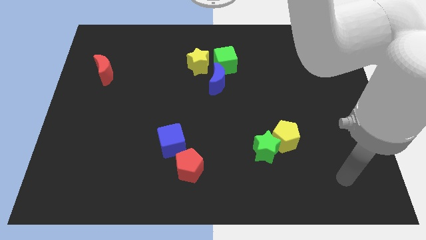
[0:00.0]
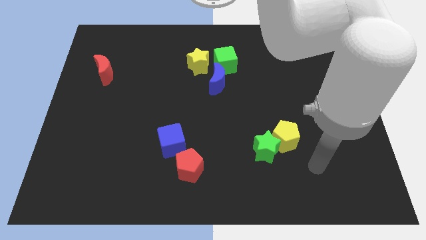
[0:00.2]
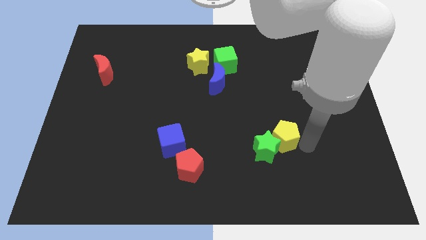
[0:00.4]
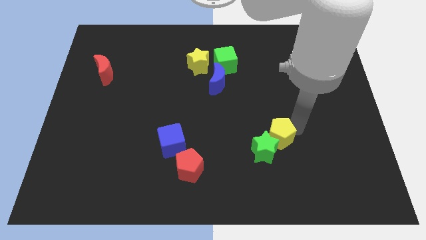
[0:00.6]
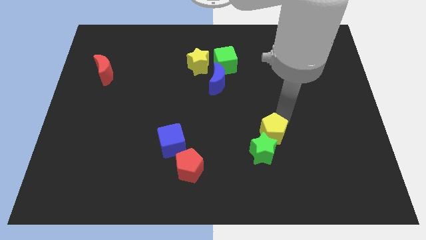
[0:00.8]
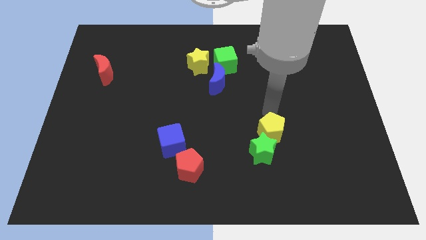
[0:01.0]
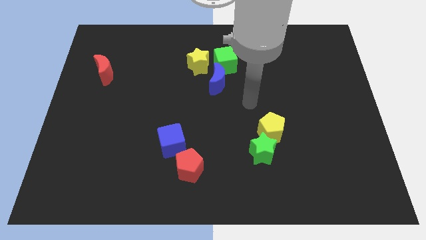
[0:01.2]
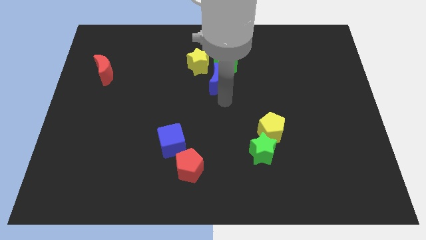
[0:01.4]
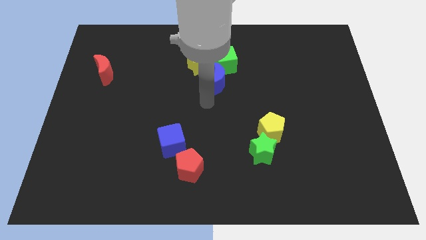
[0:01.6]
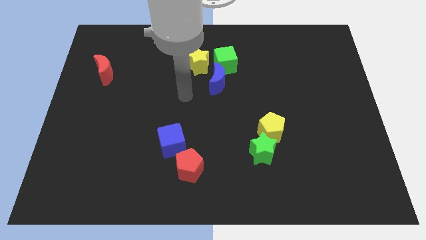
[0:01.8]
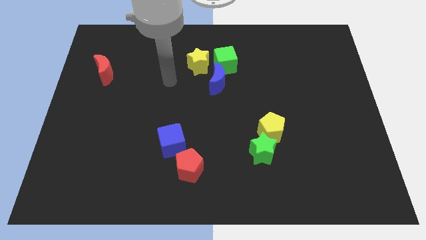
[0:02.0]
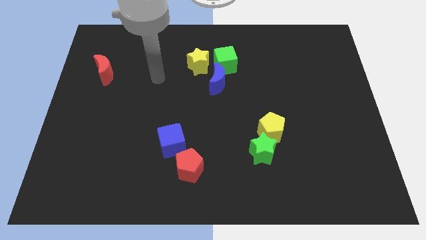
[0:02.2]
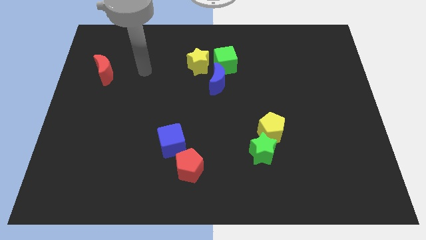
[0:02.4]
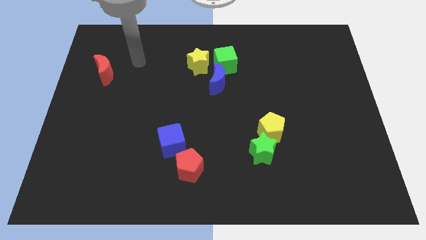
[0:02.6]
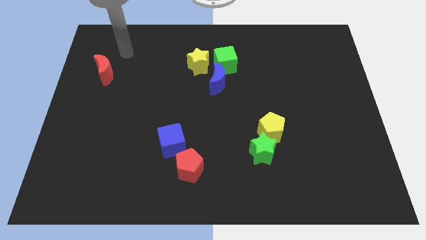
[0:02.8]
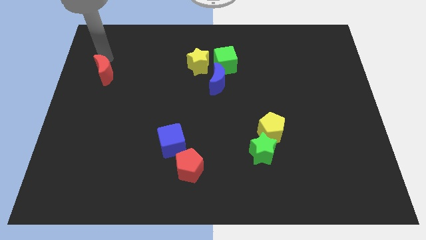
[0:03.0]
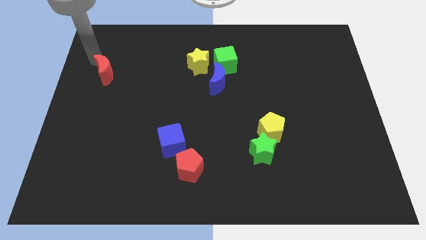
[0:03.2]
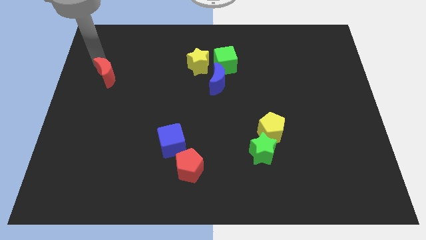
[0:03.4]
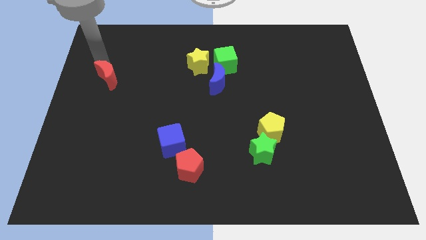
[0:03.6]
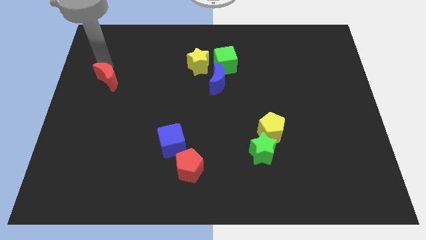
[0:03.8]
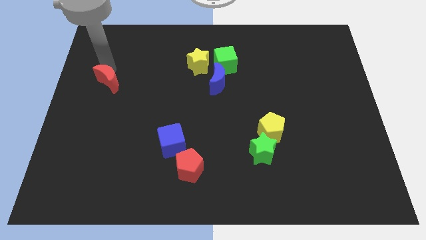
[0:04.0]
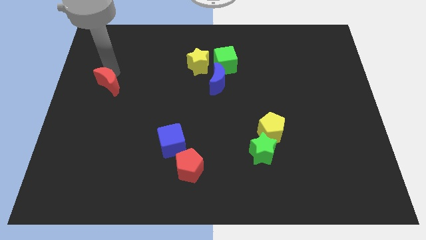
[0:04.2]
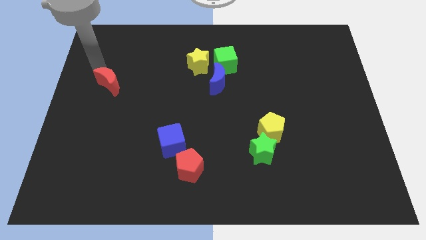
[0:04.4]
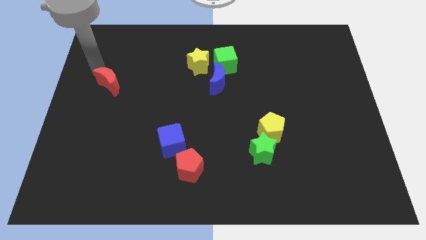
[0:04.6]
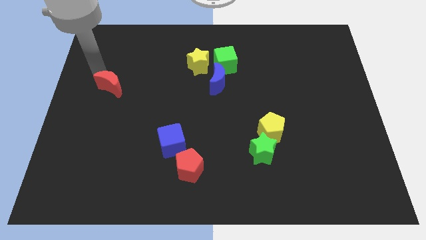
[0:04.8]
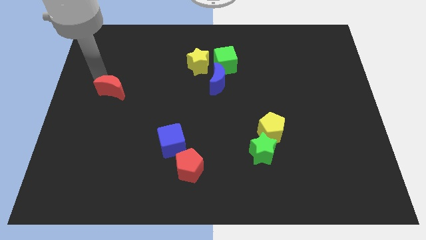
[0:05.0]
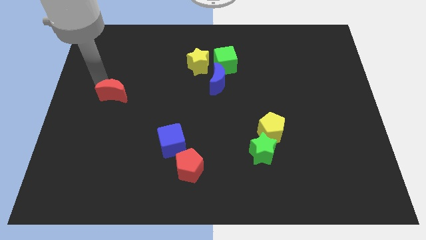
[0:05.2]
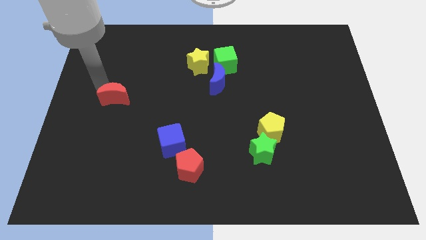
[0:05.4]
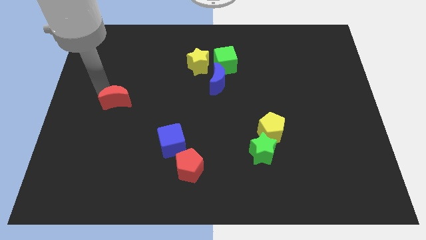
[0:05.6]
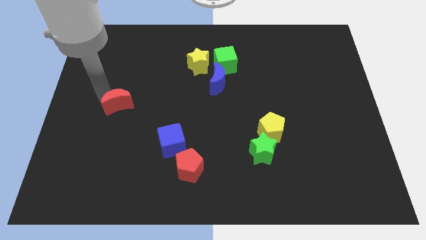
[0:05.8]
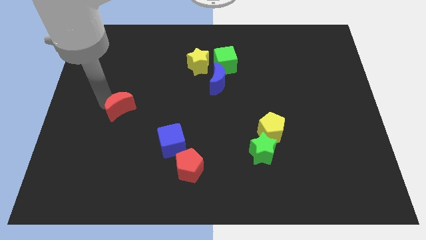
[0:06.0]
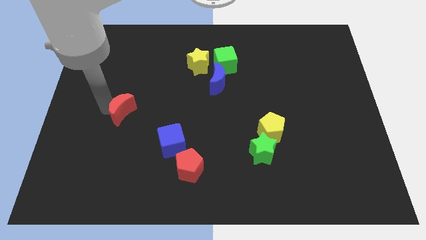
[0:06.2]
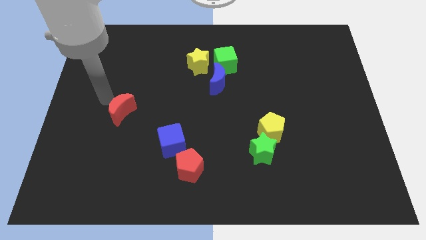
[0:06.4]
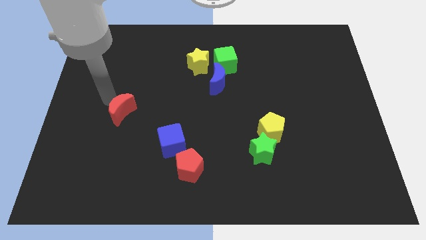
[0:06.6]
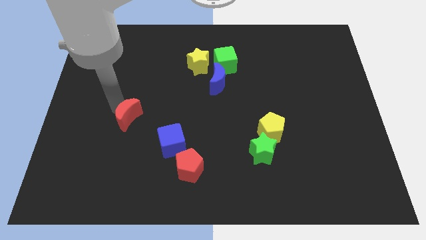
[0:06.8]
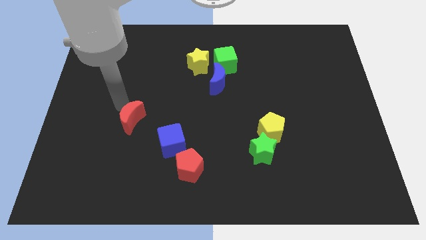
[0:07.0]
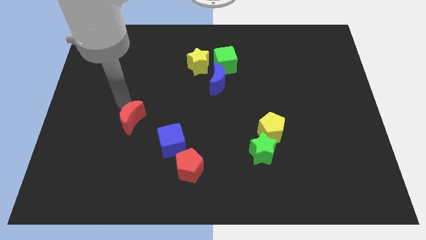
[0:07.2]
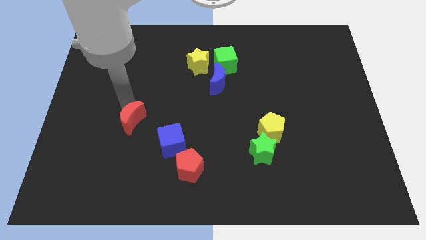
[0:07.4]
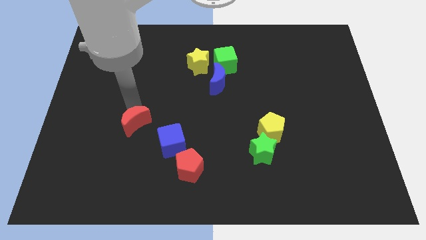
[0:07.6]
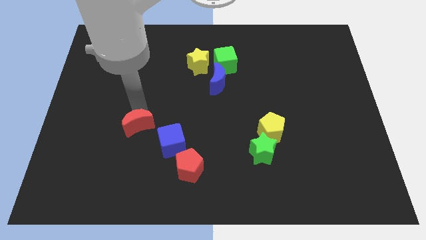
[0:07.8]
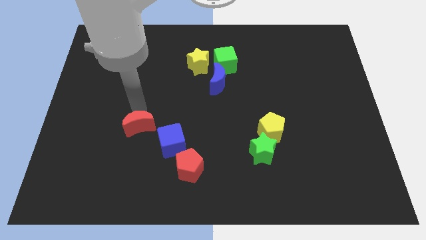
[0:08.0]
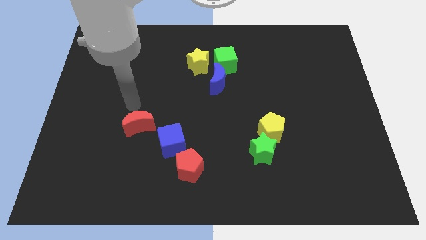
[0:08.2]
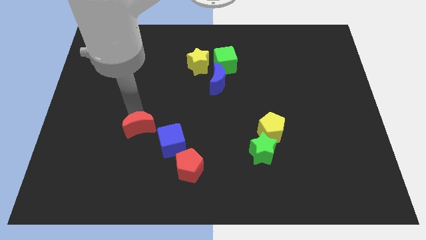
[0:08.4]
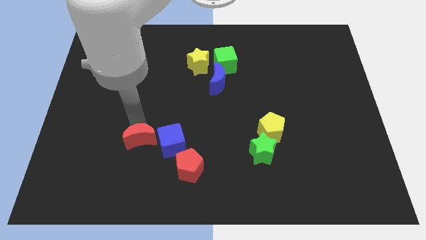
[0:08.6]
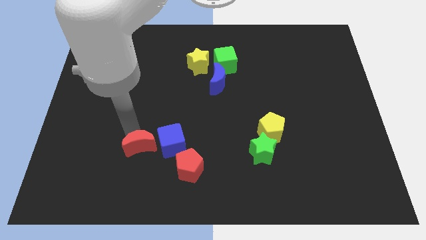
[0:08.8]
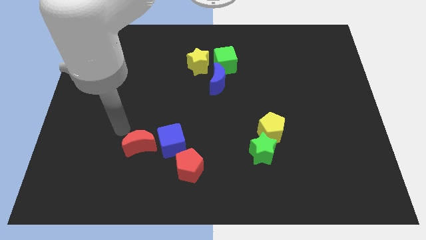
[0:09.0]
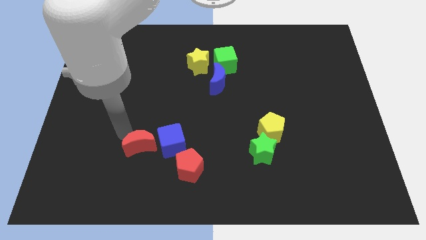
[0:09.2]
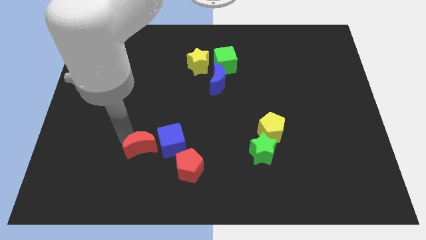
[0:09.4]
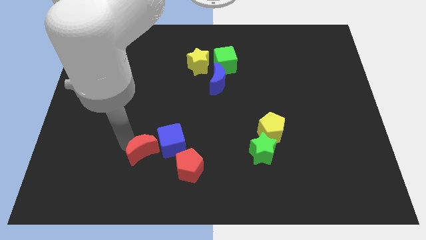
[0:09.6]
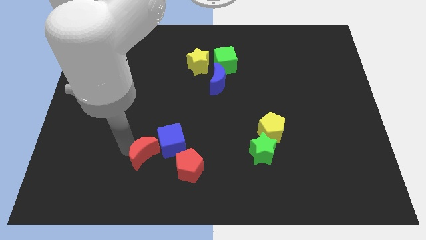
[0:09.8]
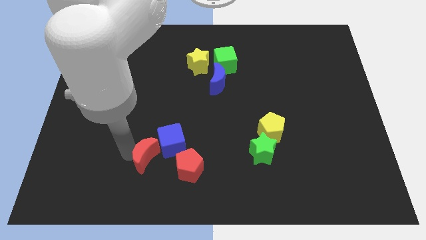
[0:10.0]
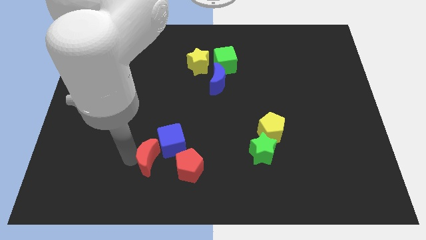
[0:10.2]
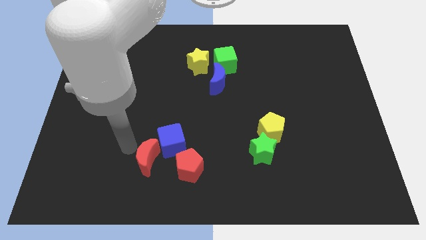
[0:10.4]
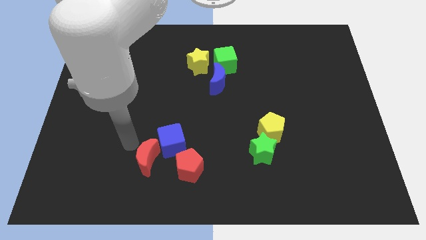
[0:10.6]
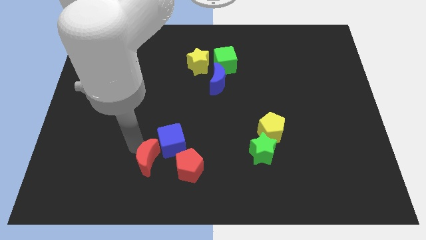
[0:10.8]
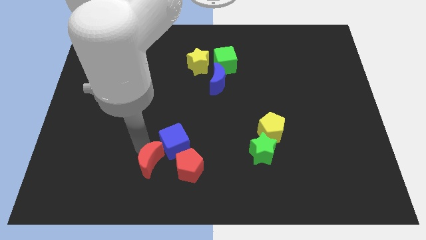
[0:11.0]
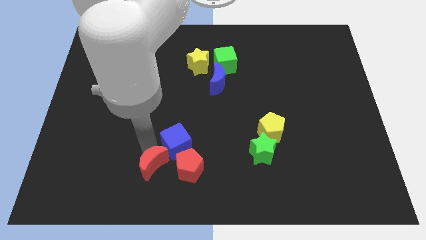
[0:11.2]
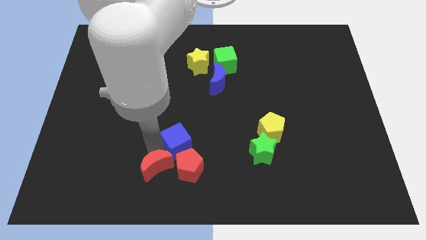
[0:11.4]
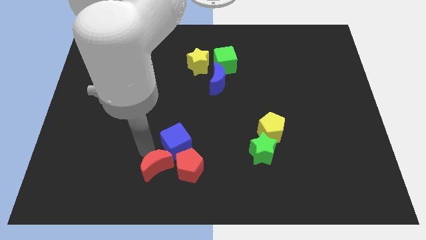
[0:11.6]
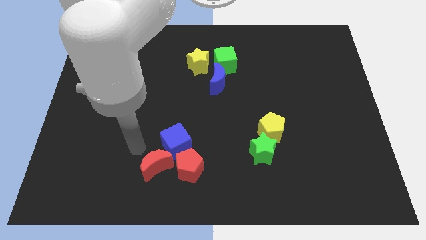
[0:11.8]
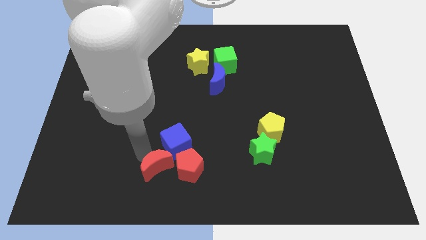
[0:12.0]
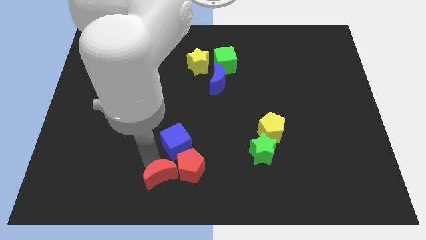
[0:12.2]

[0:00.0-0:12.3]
push the red moon to the bottom side

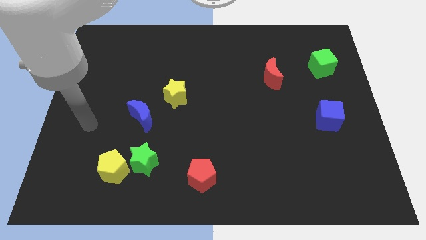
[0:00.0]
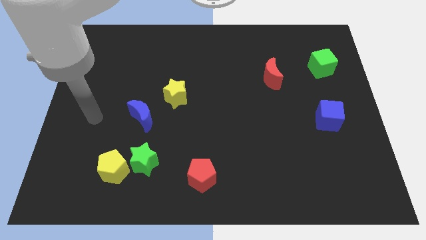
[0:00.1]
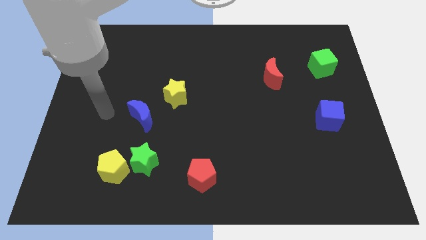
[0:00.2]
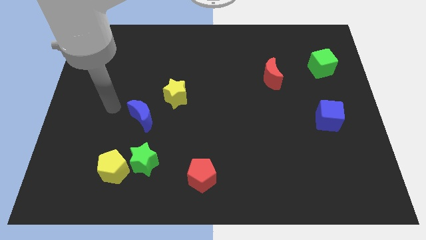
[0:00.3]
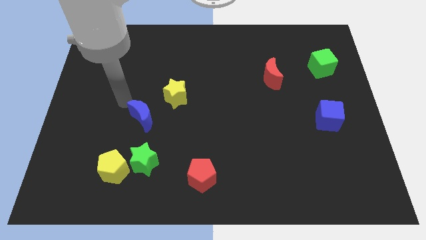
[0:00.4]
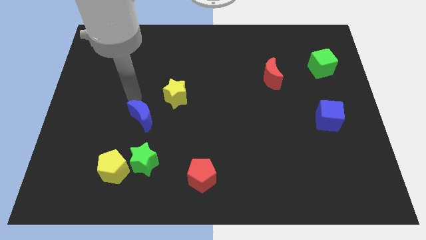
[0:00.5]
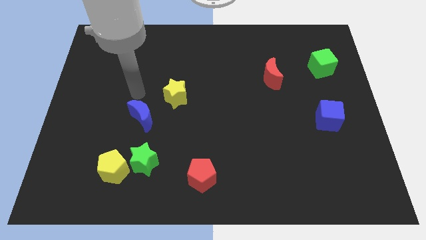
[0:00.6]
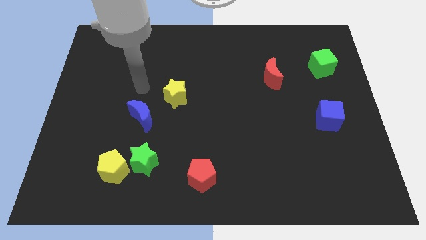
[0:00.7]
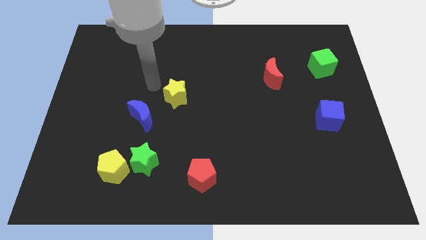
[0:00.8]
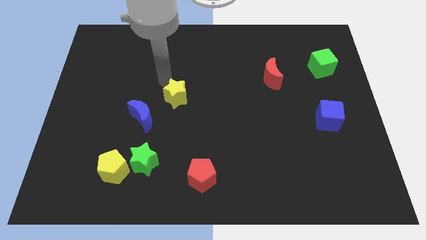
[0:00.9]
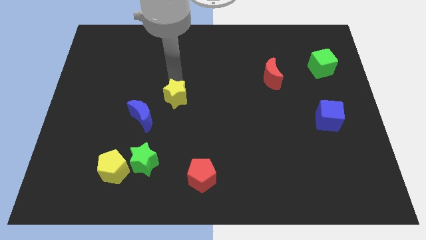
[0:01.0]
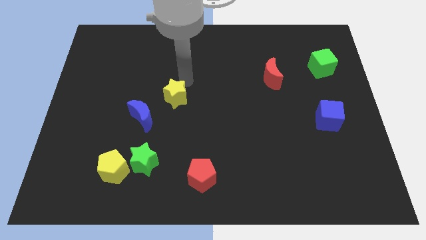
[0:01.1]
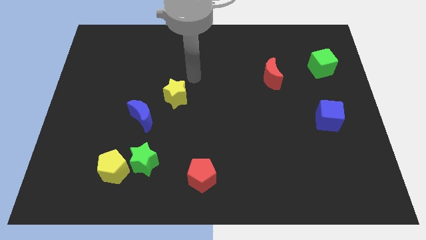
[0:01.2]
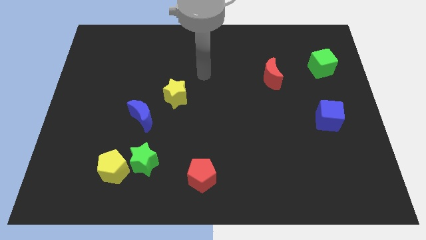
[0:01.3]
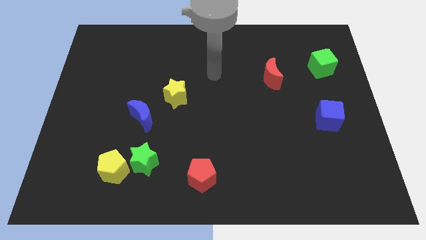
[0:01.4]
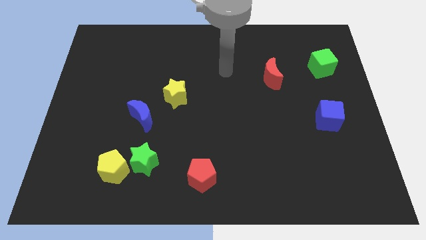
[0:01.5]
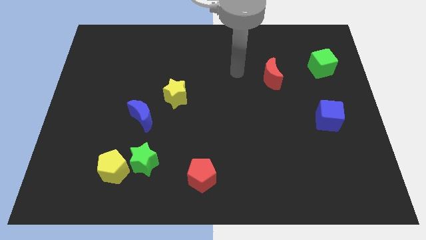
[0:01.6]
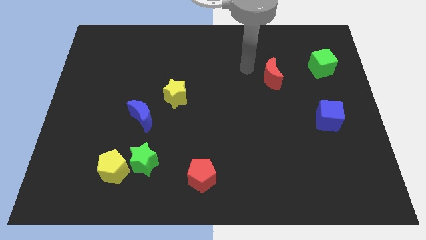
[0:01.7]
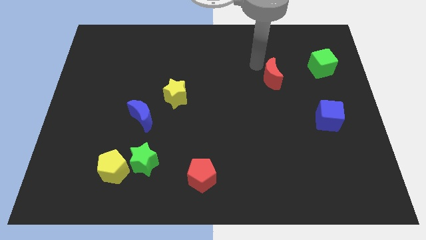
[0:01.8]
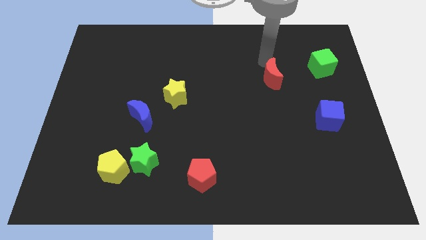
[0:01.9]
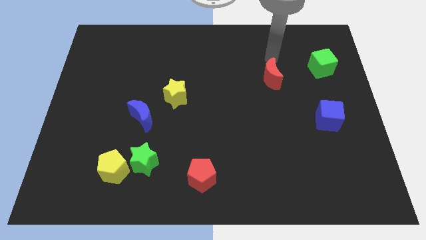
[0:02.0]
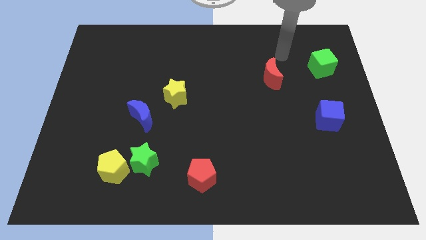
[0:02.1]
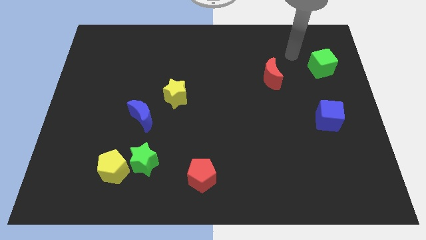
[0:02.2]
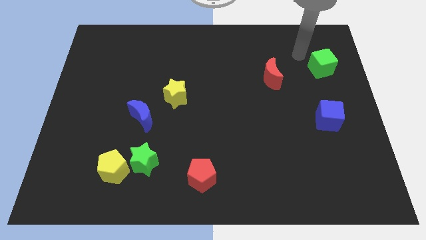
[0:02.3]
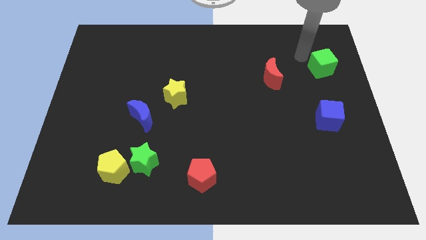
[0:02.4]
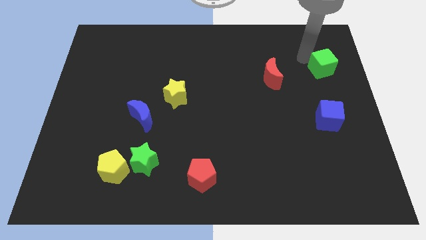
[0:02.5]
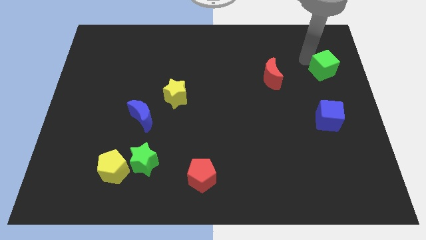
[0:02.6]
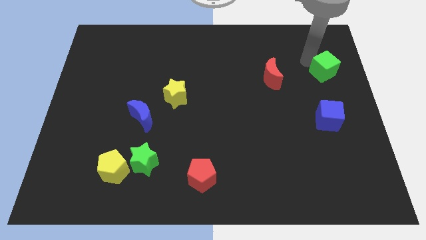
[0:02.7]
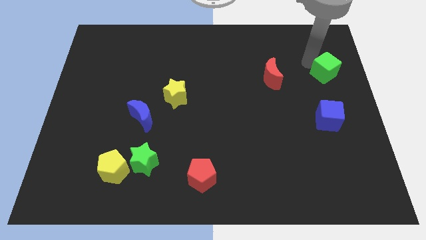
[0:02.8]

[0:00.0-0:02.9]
slide the green cube to the right side
